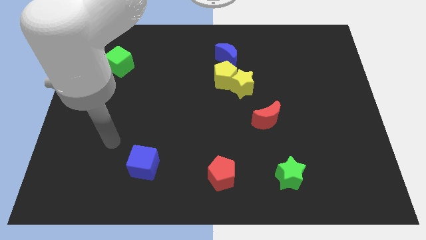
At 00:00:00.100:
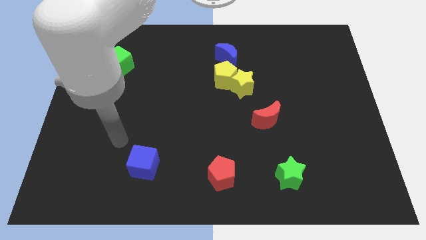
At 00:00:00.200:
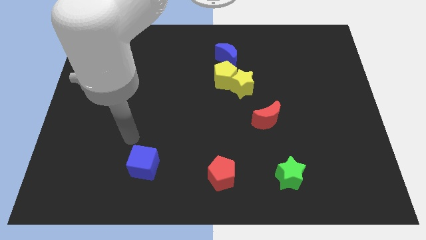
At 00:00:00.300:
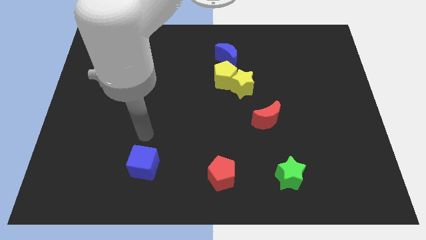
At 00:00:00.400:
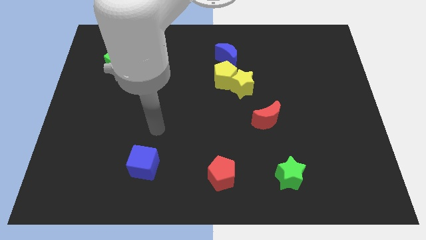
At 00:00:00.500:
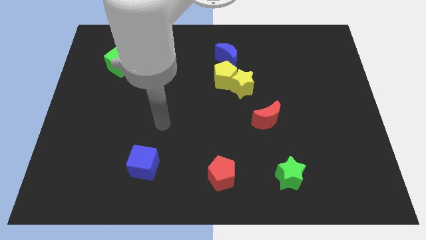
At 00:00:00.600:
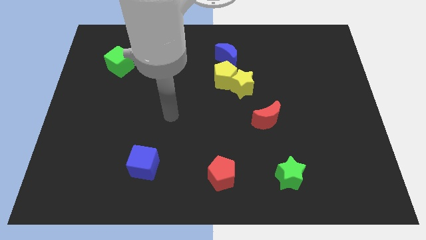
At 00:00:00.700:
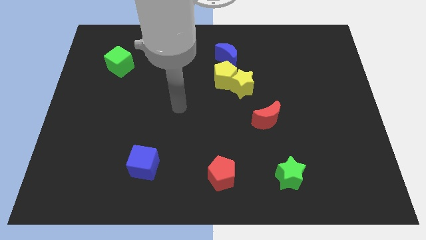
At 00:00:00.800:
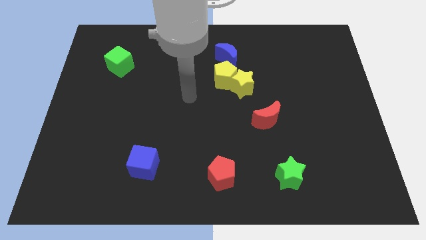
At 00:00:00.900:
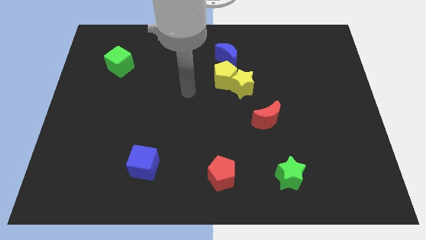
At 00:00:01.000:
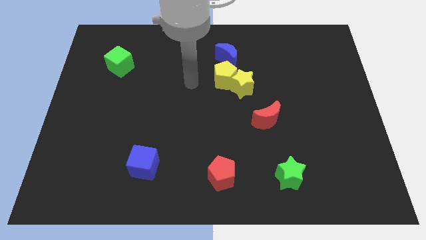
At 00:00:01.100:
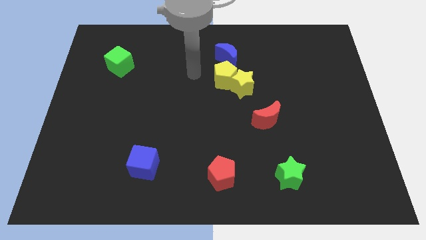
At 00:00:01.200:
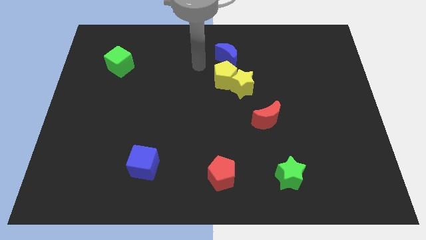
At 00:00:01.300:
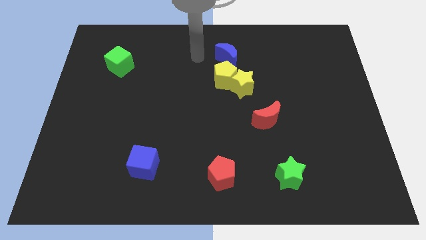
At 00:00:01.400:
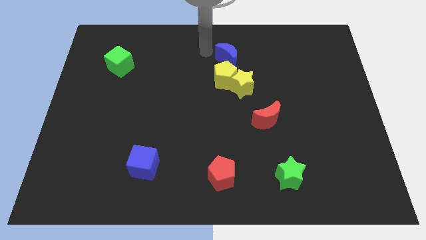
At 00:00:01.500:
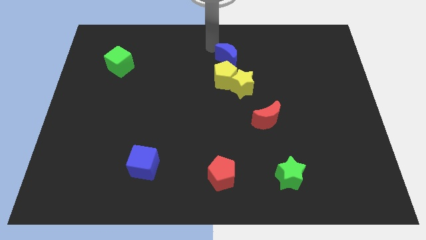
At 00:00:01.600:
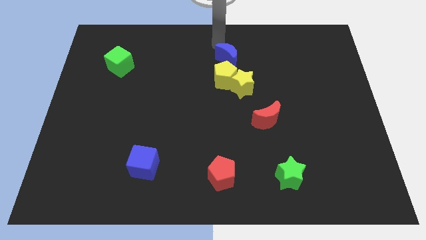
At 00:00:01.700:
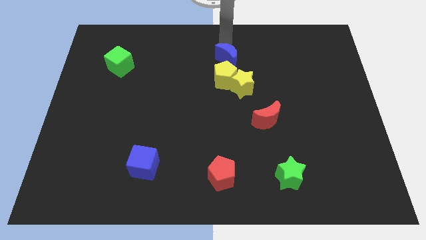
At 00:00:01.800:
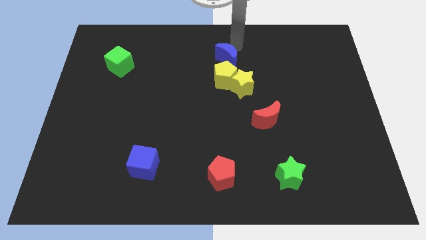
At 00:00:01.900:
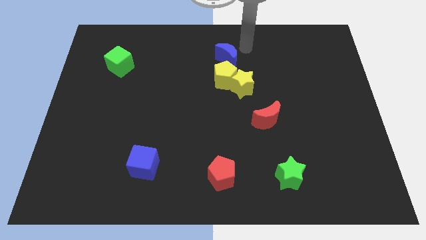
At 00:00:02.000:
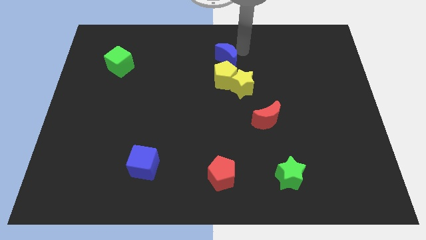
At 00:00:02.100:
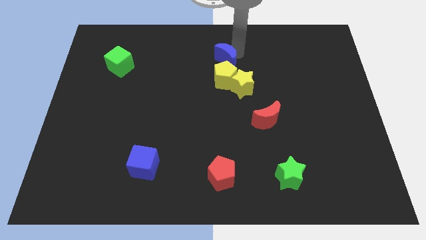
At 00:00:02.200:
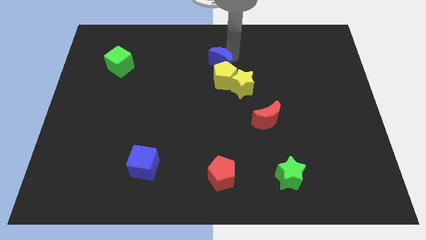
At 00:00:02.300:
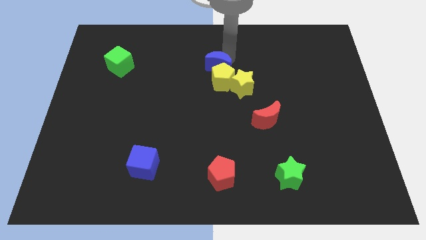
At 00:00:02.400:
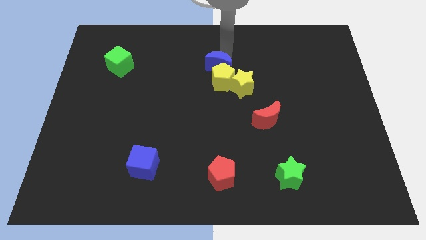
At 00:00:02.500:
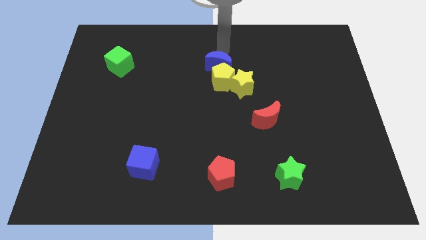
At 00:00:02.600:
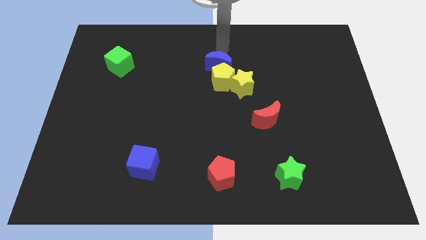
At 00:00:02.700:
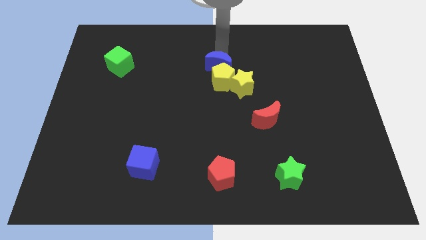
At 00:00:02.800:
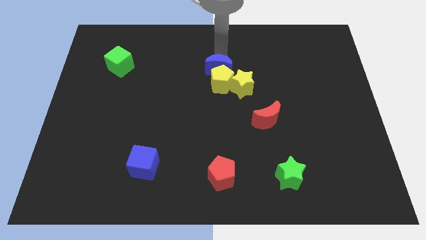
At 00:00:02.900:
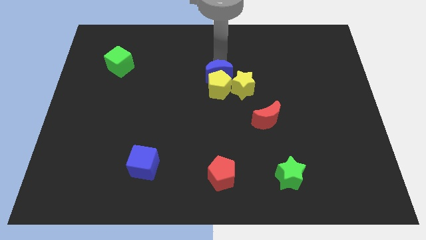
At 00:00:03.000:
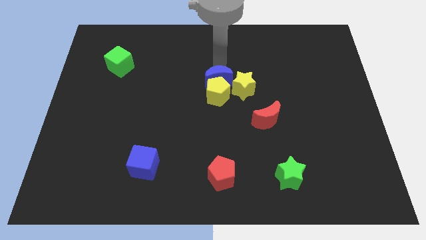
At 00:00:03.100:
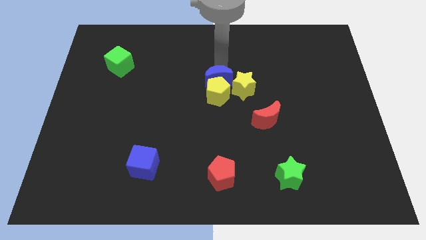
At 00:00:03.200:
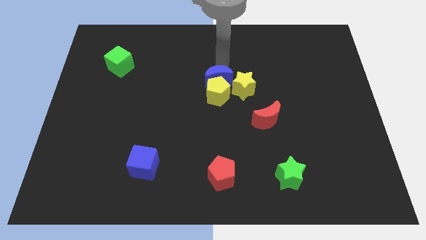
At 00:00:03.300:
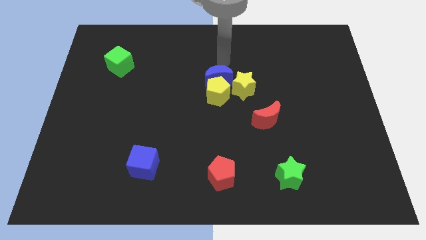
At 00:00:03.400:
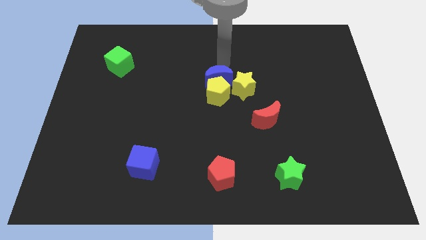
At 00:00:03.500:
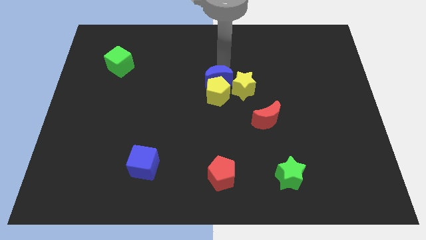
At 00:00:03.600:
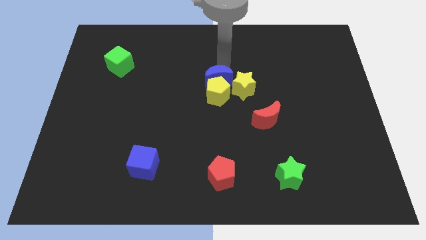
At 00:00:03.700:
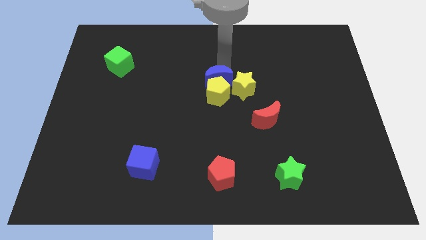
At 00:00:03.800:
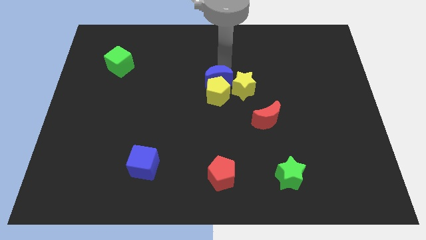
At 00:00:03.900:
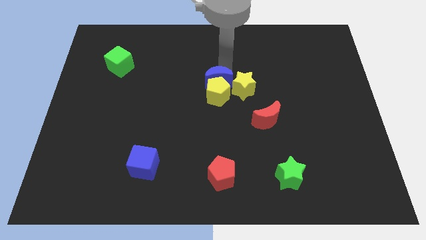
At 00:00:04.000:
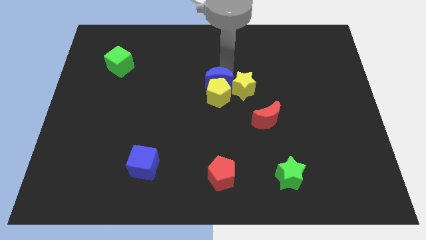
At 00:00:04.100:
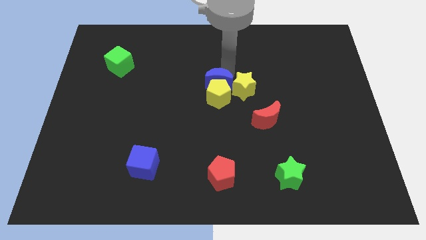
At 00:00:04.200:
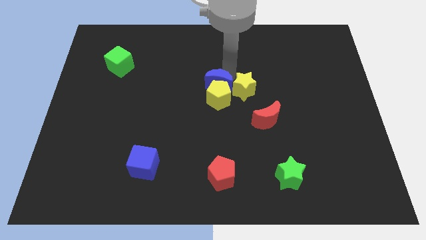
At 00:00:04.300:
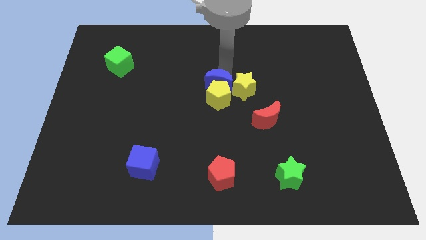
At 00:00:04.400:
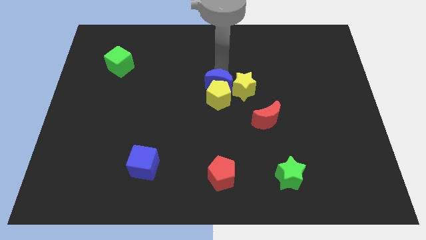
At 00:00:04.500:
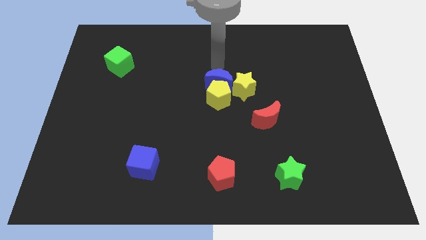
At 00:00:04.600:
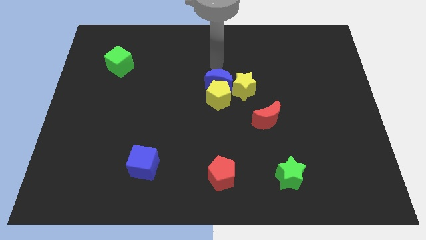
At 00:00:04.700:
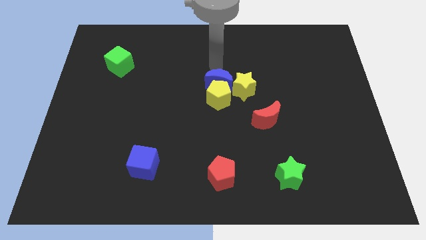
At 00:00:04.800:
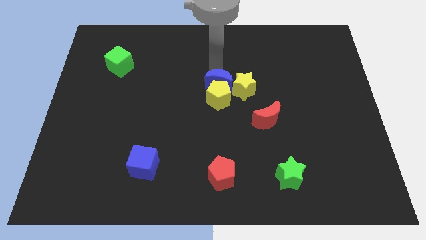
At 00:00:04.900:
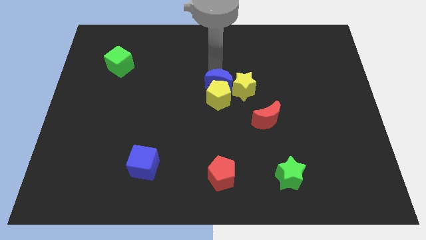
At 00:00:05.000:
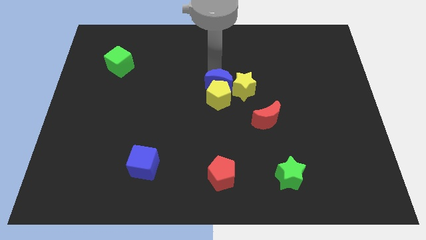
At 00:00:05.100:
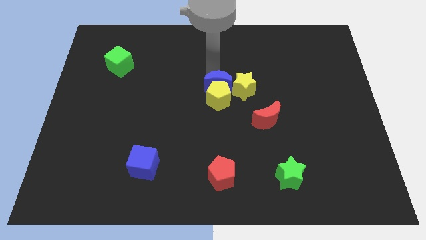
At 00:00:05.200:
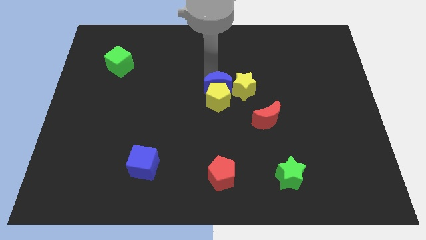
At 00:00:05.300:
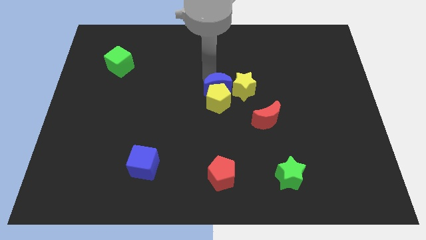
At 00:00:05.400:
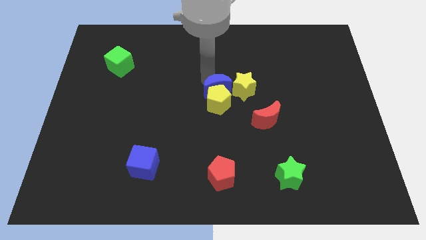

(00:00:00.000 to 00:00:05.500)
slide the blue moon to the bottom left of the yellow star

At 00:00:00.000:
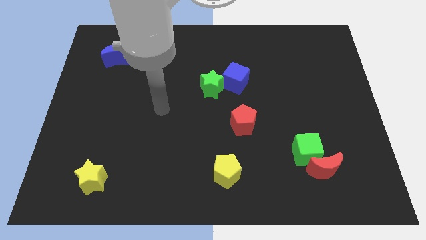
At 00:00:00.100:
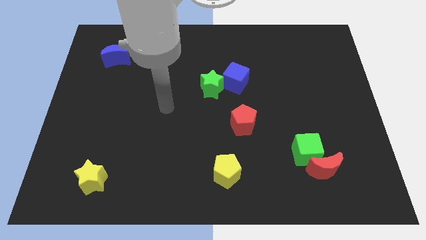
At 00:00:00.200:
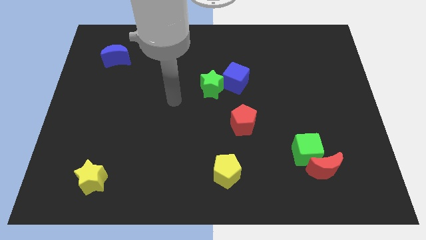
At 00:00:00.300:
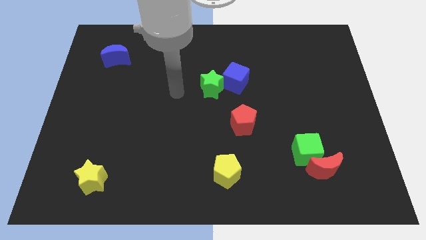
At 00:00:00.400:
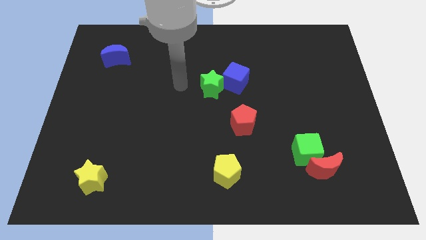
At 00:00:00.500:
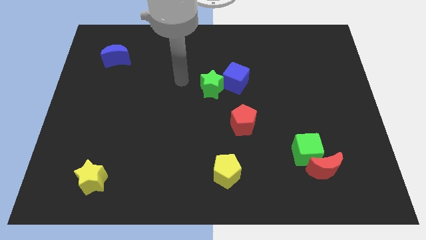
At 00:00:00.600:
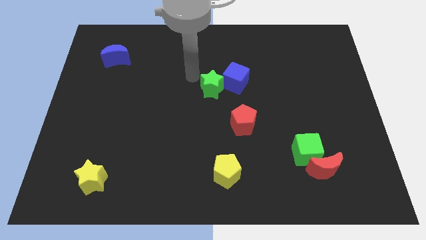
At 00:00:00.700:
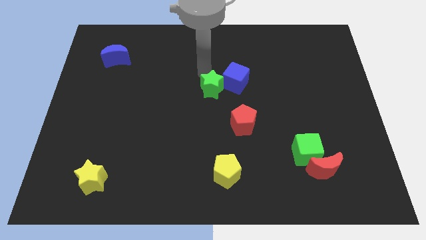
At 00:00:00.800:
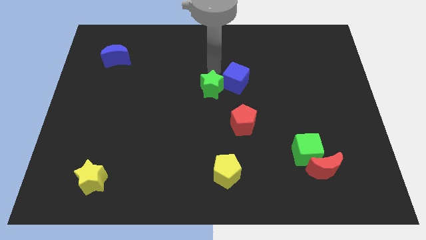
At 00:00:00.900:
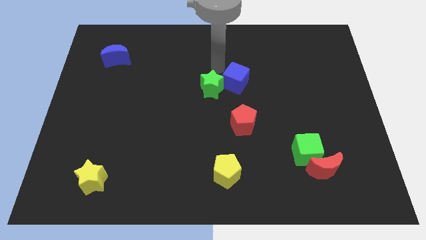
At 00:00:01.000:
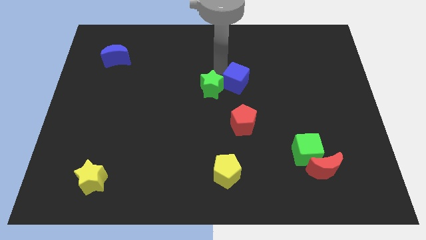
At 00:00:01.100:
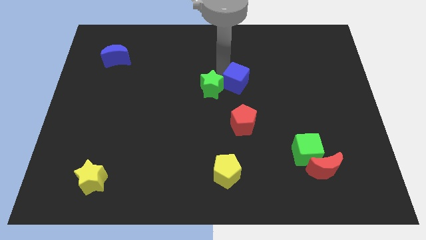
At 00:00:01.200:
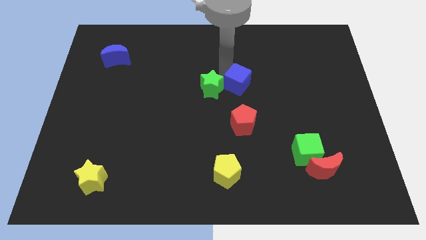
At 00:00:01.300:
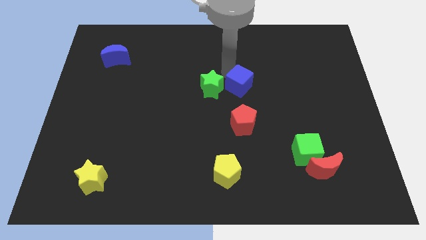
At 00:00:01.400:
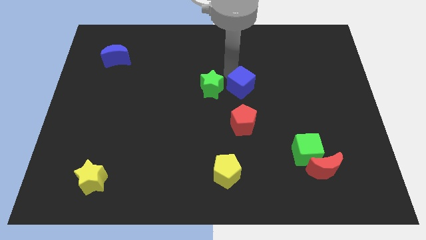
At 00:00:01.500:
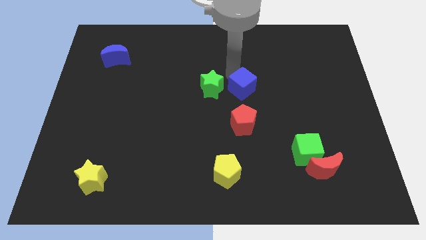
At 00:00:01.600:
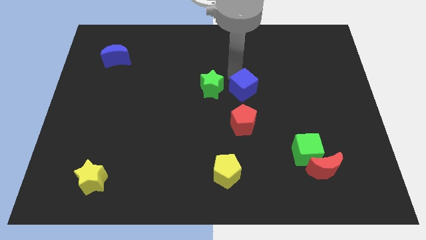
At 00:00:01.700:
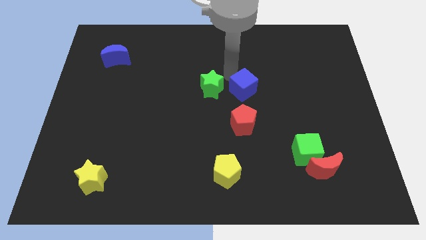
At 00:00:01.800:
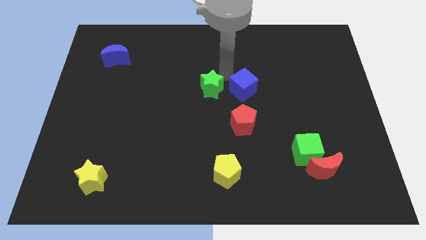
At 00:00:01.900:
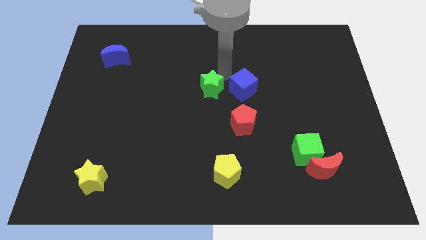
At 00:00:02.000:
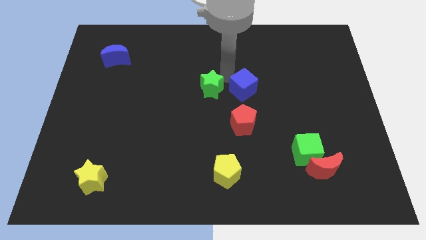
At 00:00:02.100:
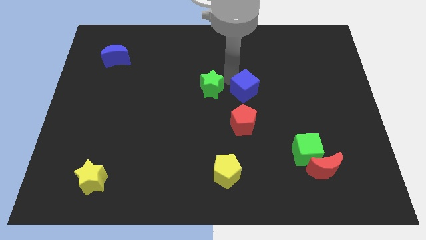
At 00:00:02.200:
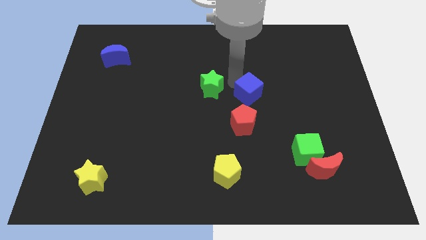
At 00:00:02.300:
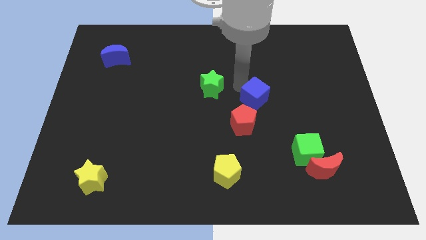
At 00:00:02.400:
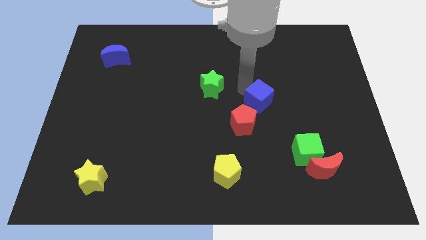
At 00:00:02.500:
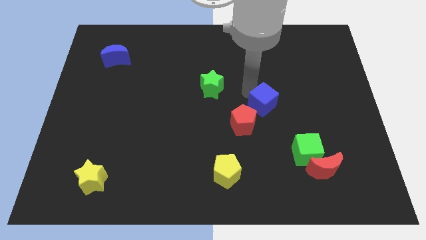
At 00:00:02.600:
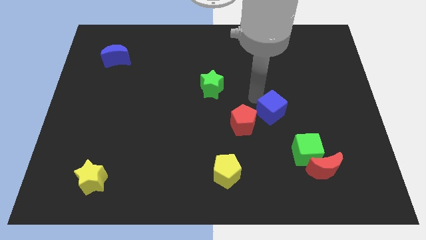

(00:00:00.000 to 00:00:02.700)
slide the blue cube to the right of the red pentagon
